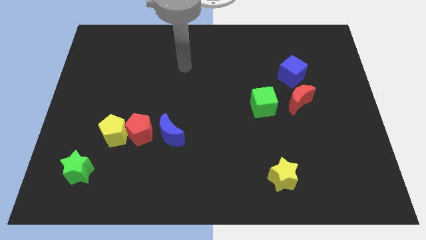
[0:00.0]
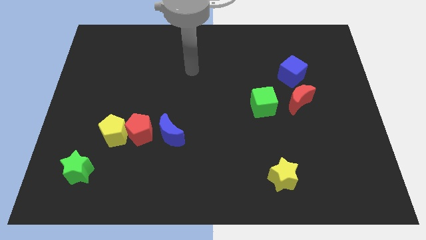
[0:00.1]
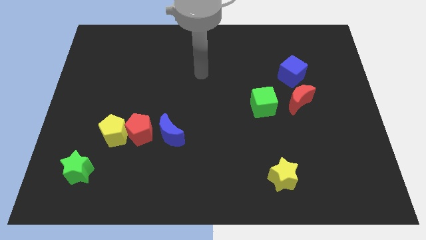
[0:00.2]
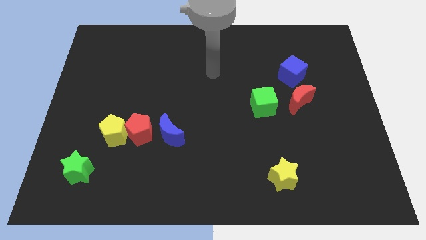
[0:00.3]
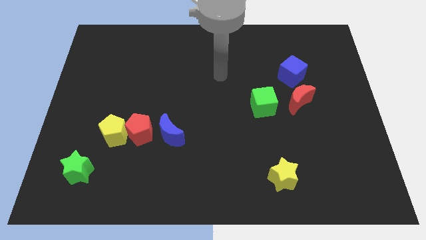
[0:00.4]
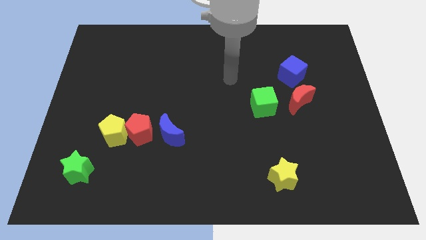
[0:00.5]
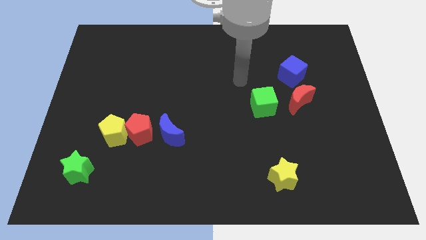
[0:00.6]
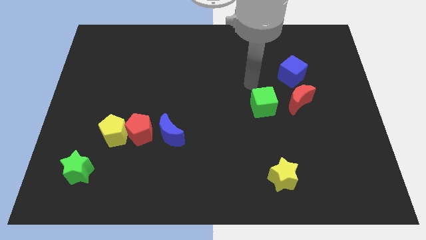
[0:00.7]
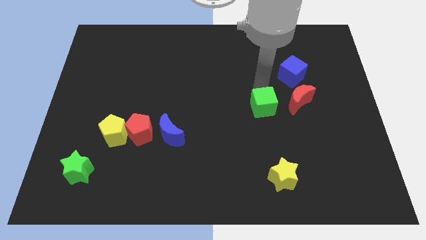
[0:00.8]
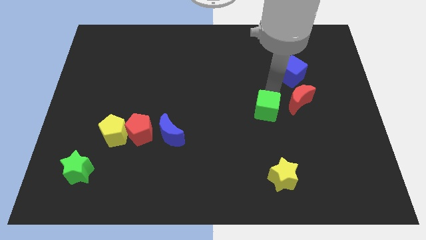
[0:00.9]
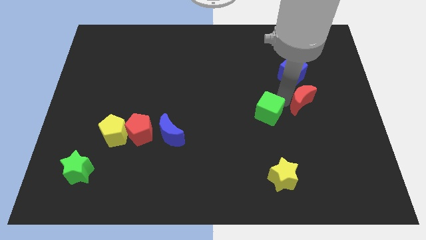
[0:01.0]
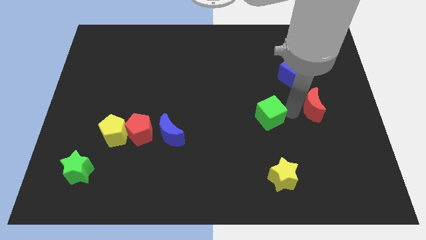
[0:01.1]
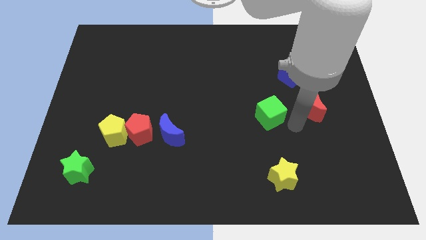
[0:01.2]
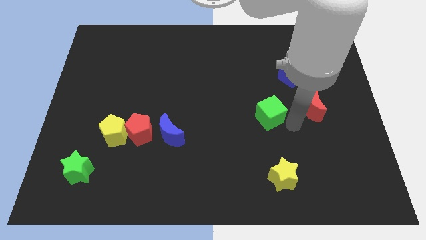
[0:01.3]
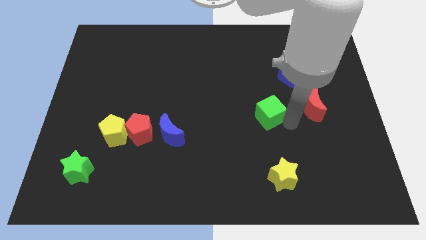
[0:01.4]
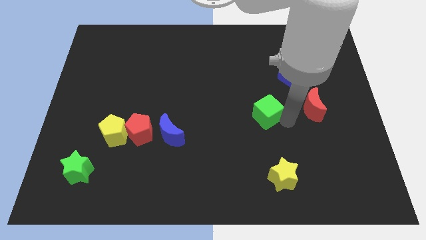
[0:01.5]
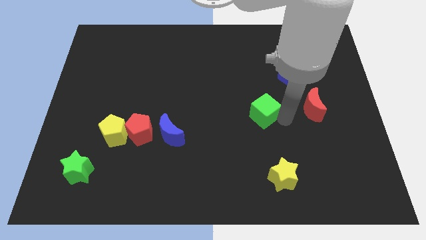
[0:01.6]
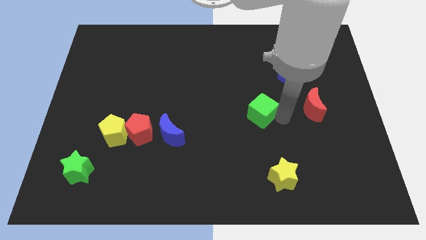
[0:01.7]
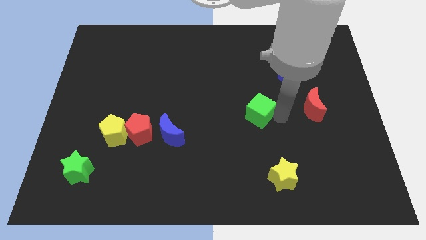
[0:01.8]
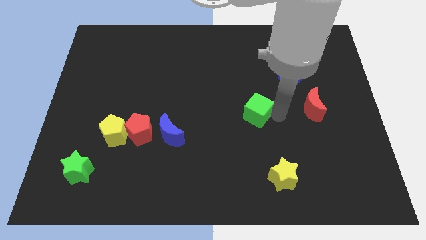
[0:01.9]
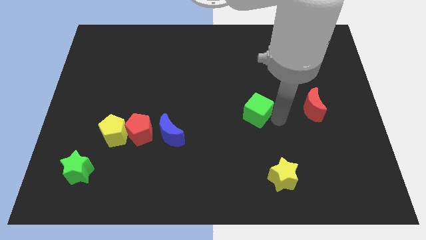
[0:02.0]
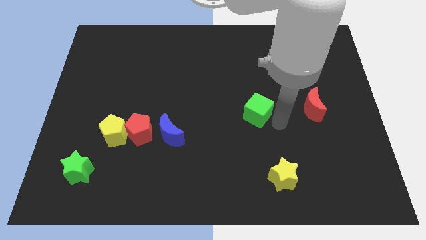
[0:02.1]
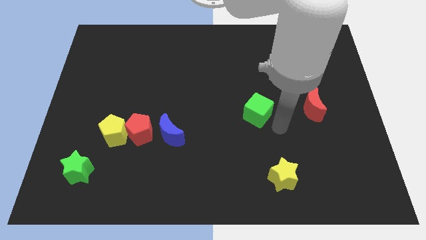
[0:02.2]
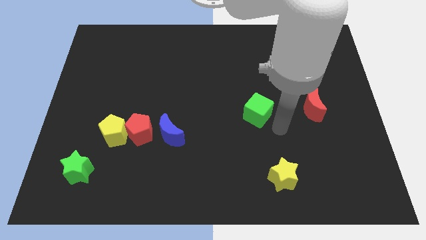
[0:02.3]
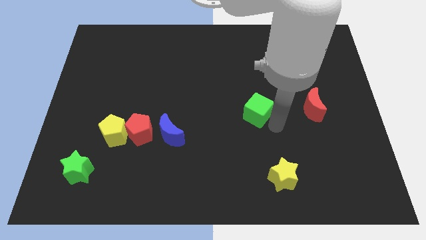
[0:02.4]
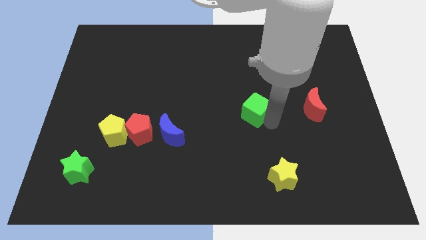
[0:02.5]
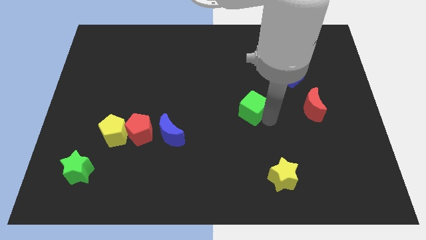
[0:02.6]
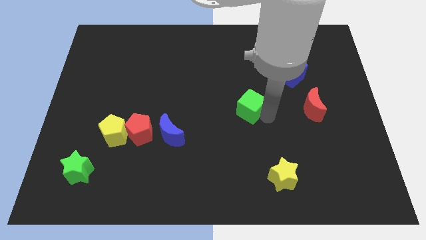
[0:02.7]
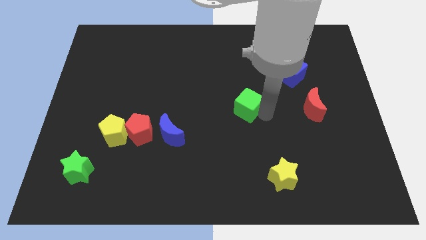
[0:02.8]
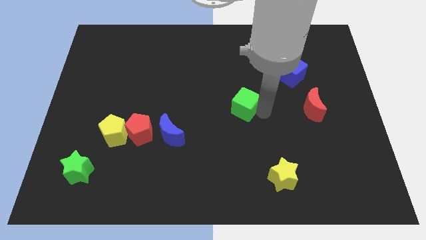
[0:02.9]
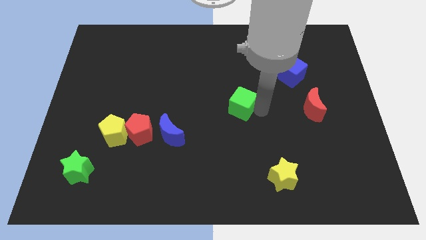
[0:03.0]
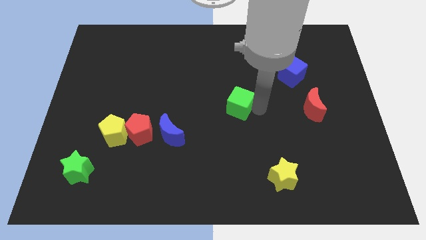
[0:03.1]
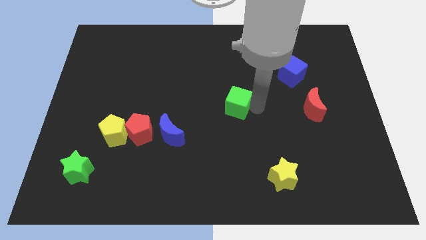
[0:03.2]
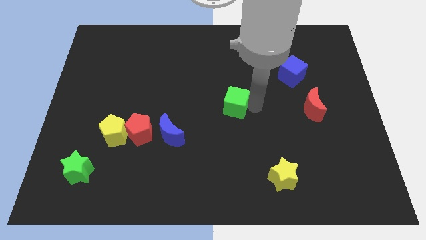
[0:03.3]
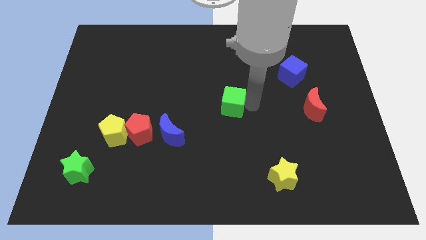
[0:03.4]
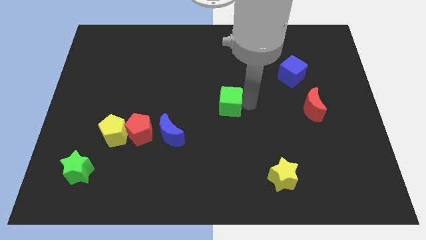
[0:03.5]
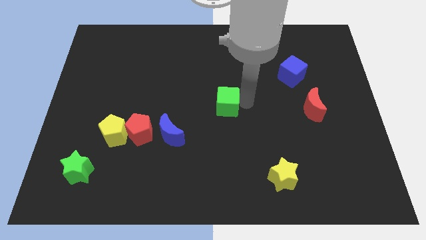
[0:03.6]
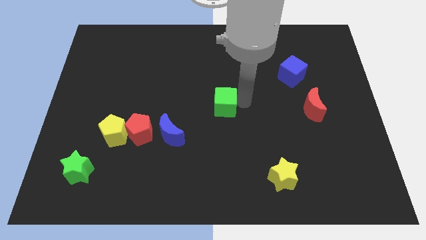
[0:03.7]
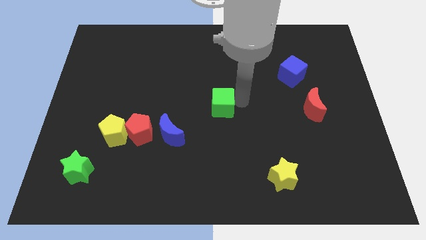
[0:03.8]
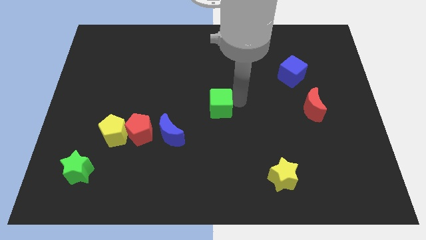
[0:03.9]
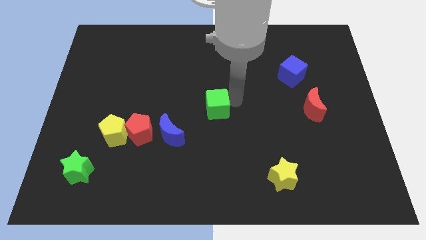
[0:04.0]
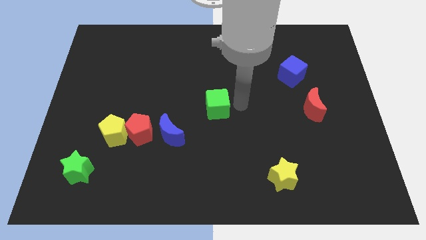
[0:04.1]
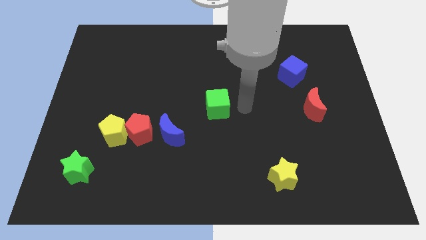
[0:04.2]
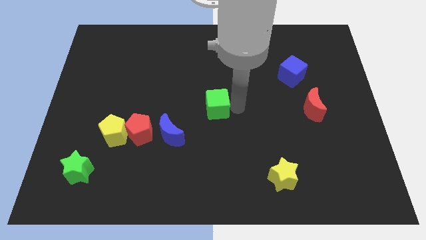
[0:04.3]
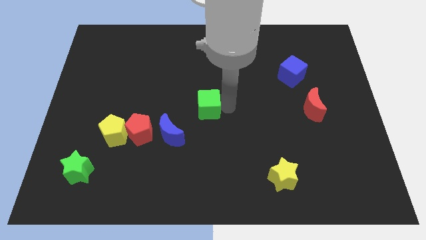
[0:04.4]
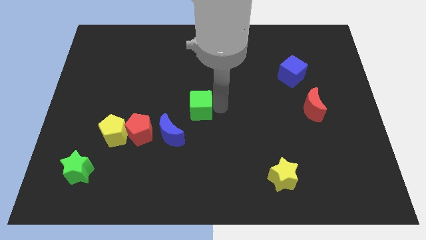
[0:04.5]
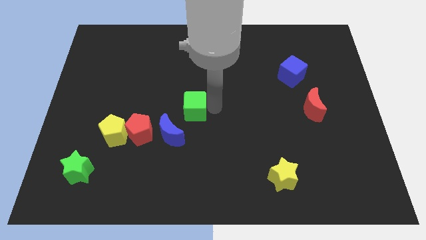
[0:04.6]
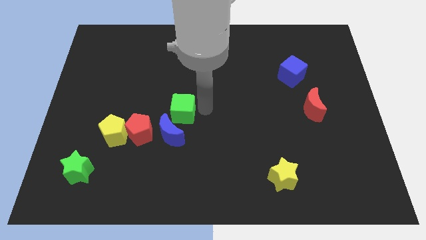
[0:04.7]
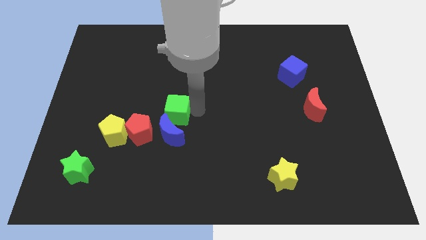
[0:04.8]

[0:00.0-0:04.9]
move the green cube to the left

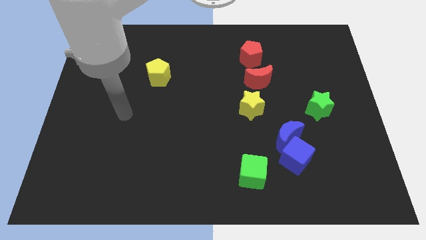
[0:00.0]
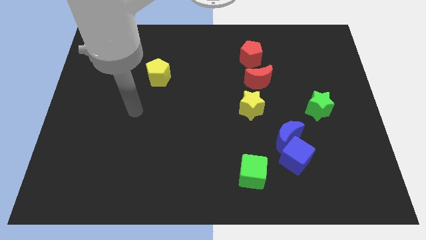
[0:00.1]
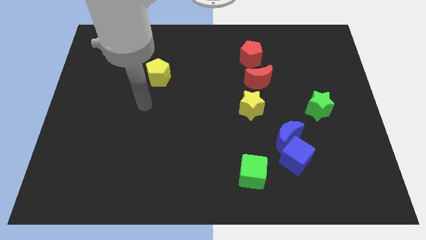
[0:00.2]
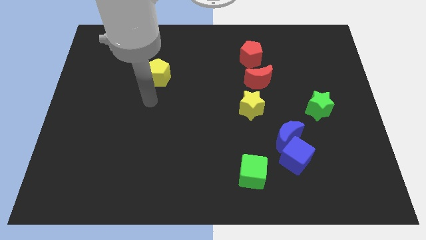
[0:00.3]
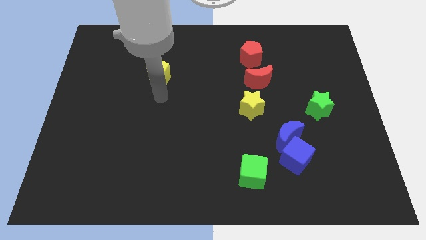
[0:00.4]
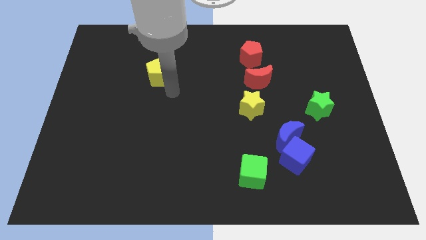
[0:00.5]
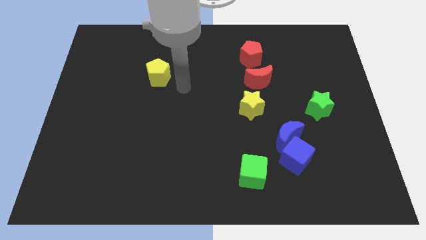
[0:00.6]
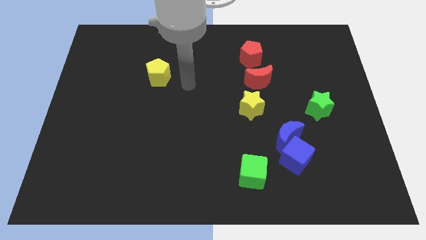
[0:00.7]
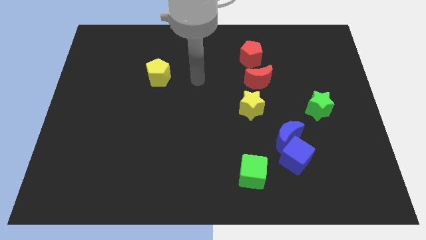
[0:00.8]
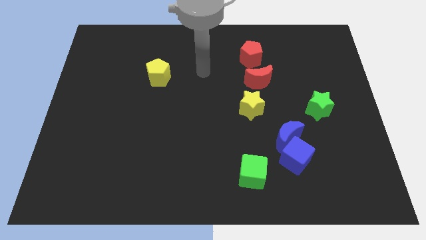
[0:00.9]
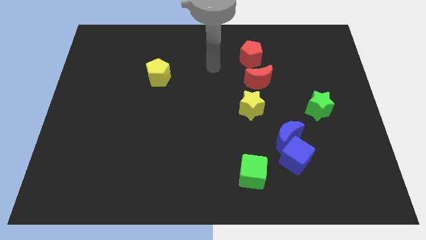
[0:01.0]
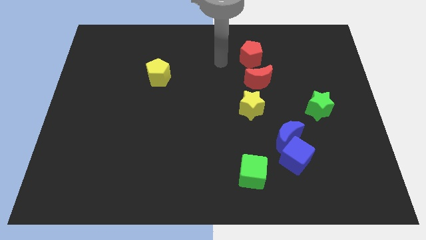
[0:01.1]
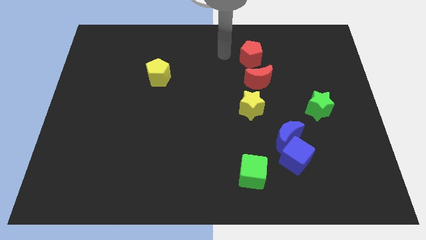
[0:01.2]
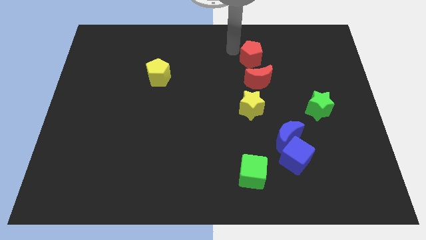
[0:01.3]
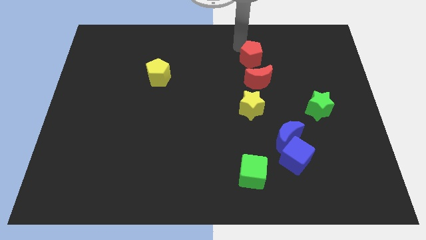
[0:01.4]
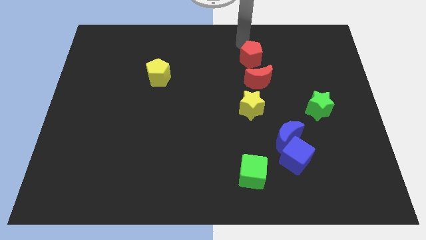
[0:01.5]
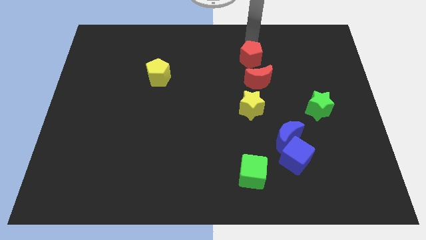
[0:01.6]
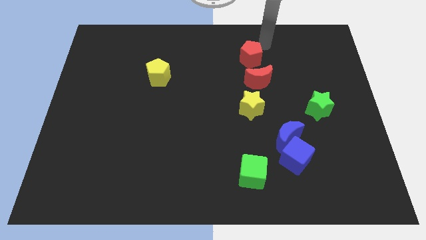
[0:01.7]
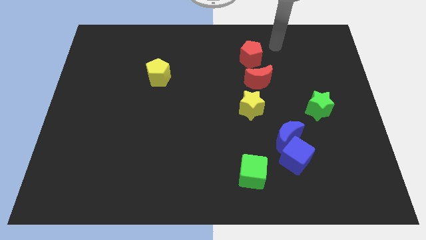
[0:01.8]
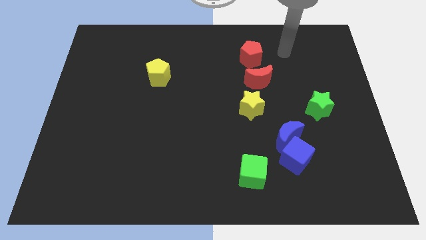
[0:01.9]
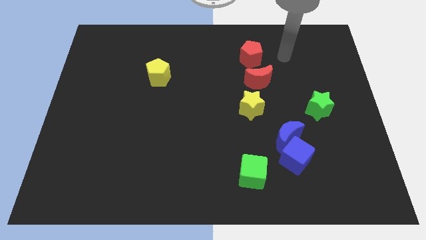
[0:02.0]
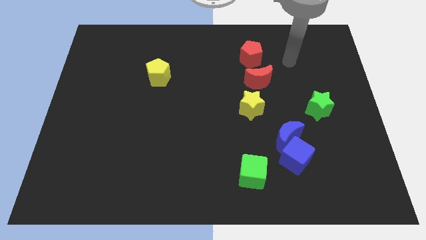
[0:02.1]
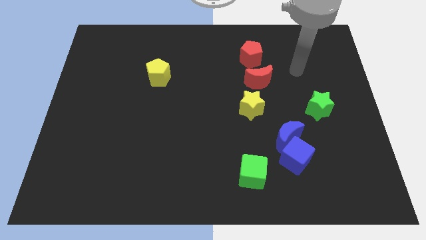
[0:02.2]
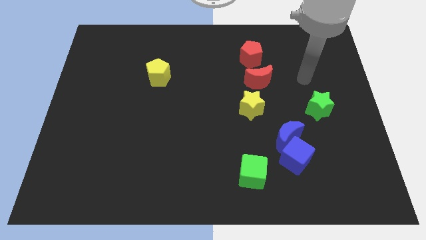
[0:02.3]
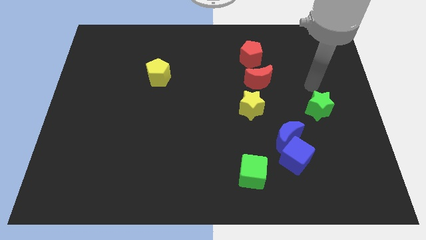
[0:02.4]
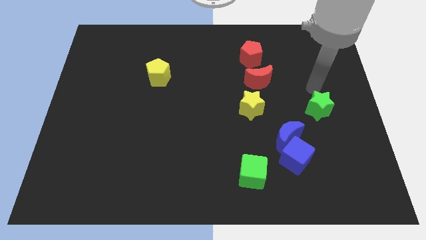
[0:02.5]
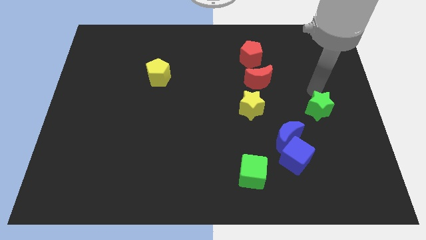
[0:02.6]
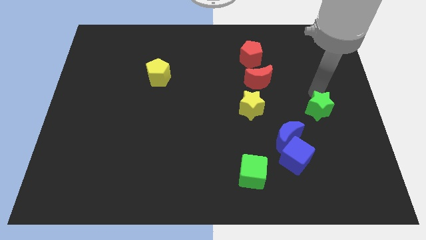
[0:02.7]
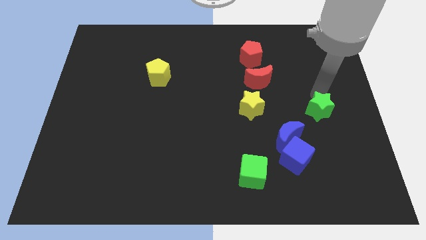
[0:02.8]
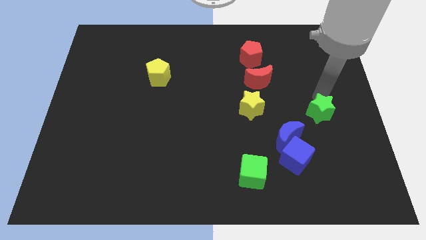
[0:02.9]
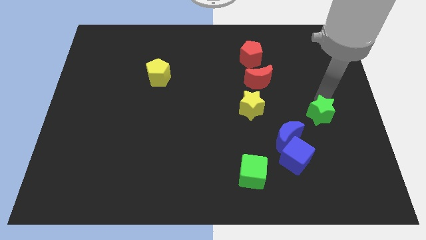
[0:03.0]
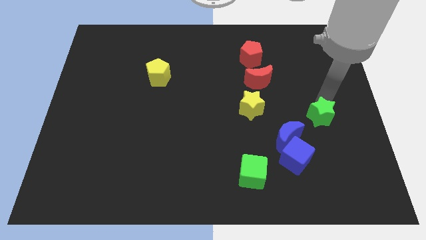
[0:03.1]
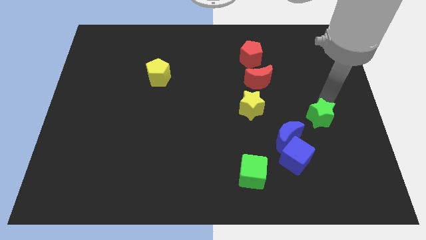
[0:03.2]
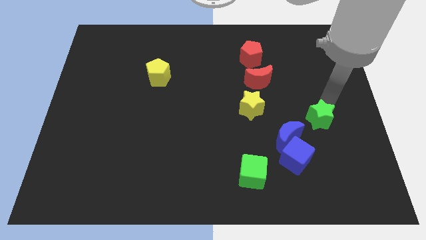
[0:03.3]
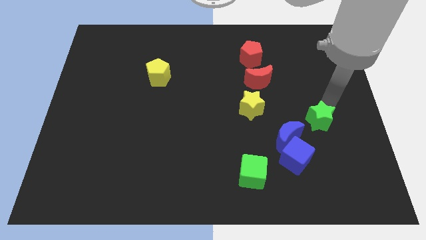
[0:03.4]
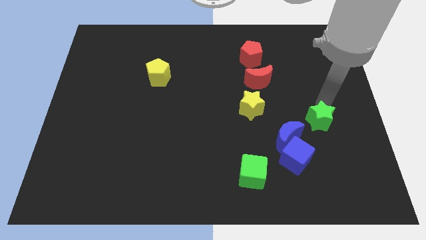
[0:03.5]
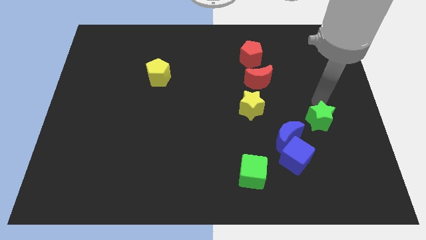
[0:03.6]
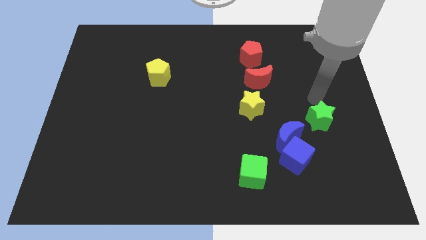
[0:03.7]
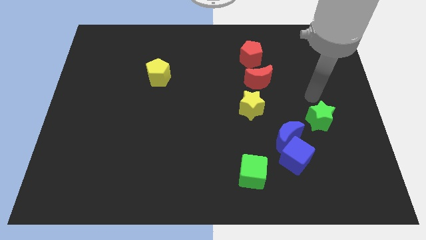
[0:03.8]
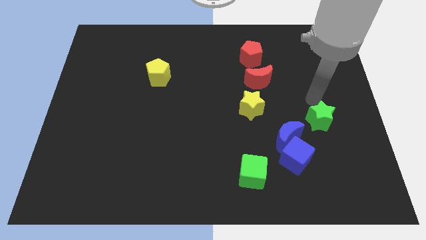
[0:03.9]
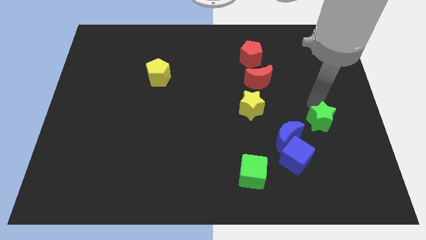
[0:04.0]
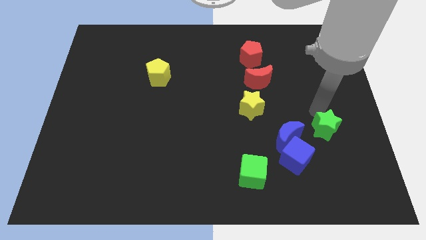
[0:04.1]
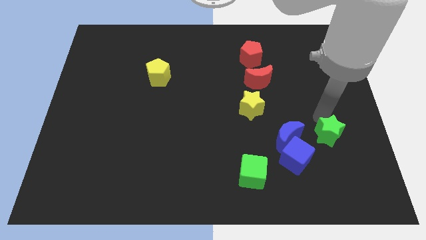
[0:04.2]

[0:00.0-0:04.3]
slightly push the green star down
